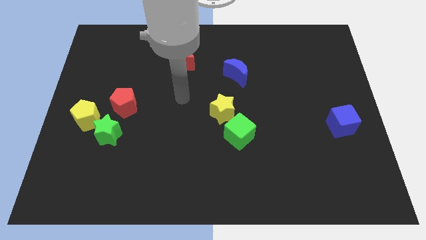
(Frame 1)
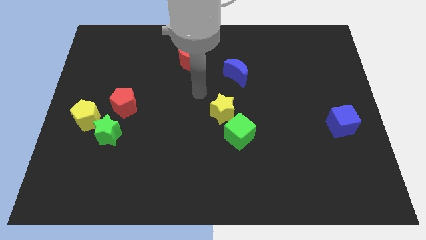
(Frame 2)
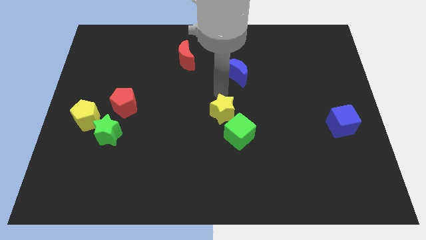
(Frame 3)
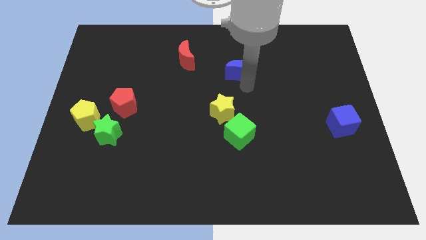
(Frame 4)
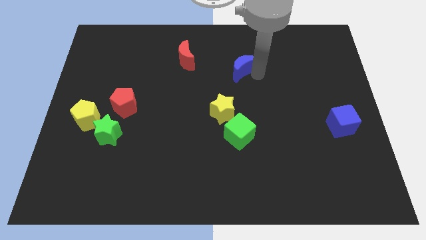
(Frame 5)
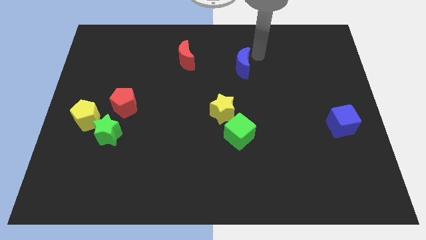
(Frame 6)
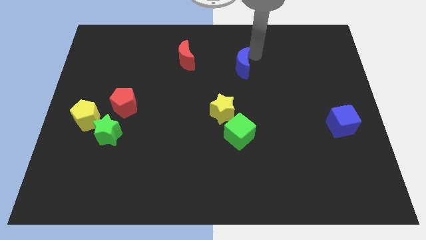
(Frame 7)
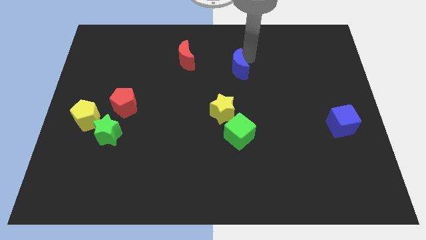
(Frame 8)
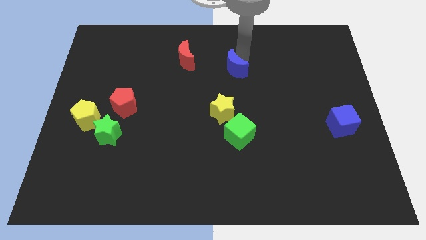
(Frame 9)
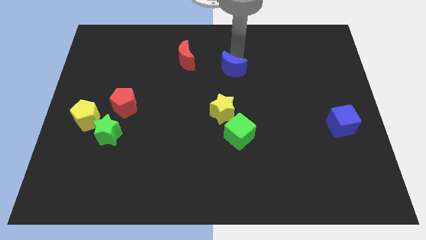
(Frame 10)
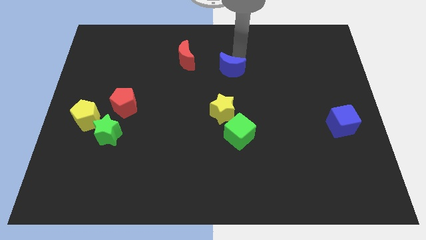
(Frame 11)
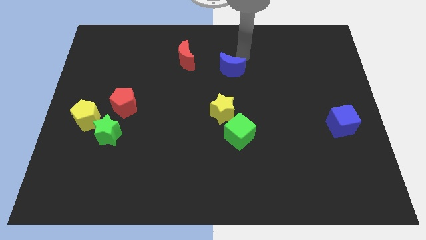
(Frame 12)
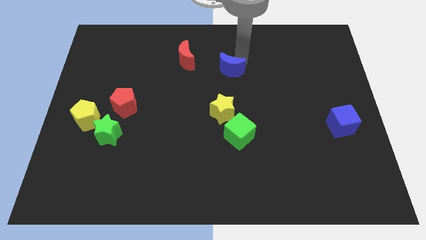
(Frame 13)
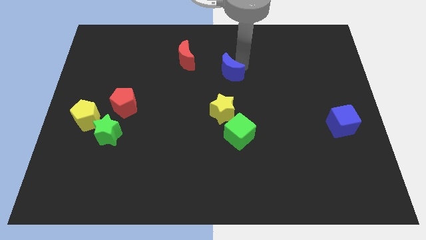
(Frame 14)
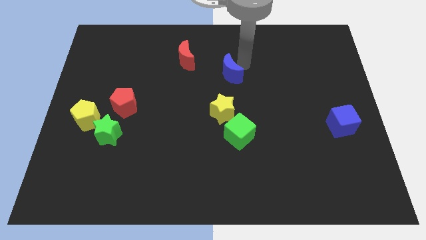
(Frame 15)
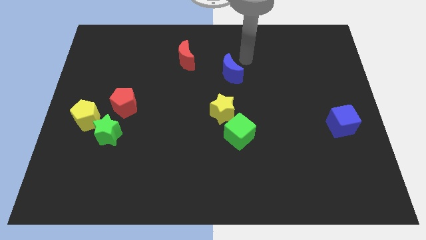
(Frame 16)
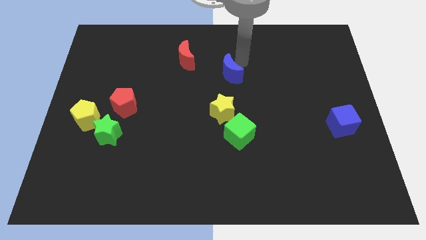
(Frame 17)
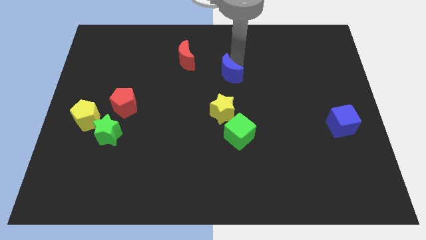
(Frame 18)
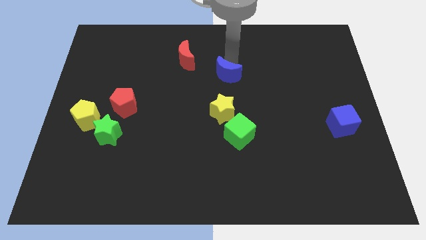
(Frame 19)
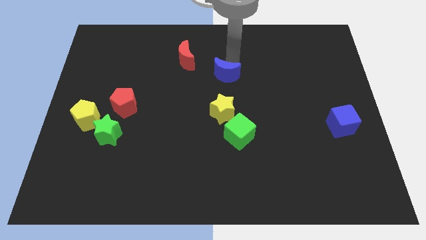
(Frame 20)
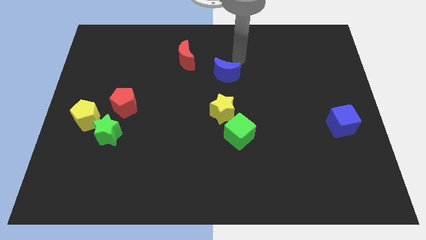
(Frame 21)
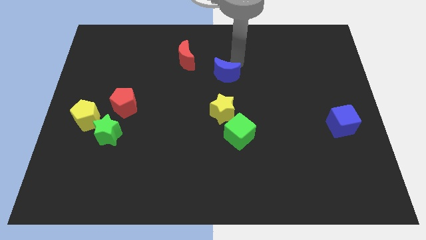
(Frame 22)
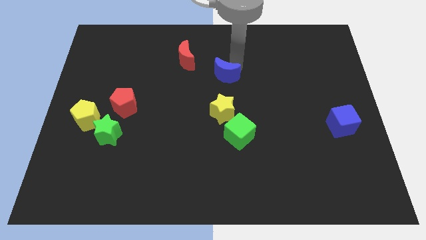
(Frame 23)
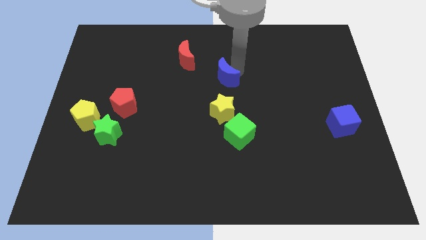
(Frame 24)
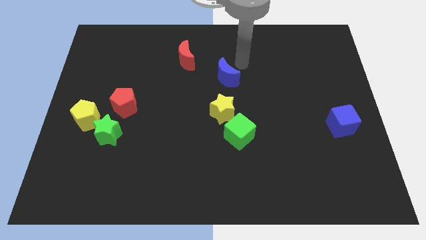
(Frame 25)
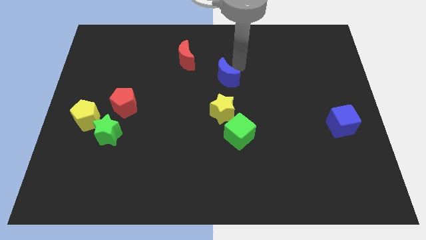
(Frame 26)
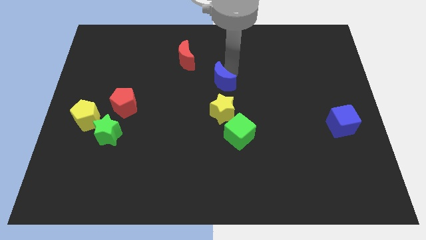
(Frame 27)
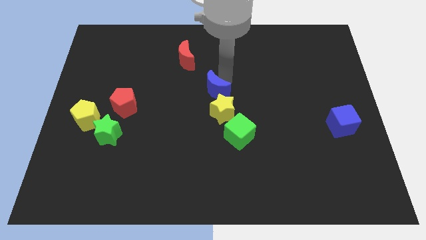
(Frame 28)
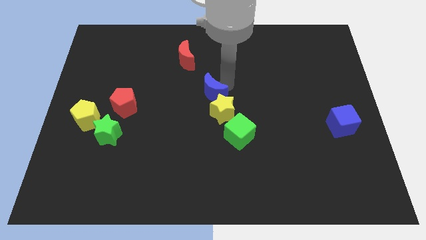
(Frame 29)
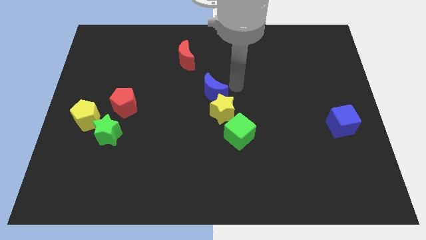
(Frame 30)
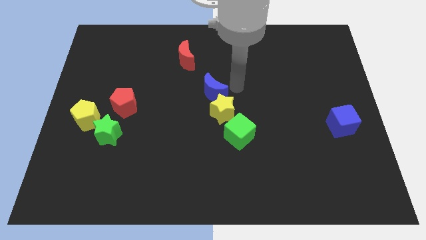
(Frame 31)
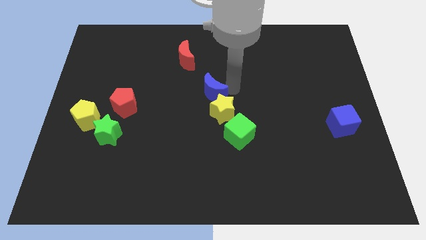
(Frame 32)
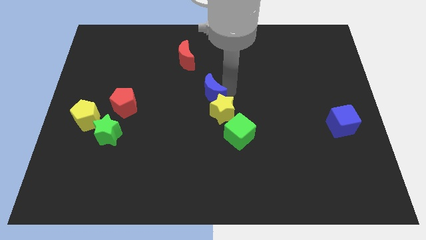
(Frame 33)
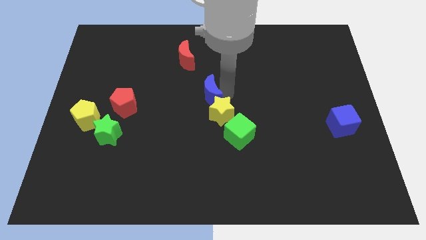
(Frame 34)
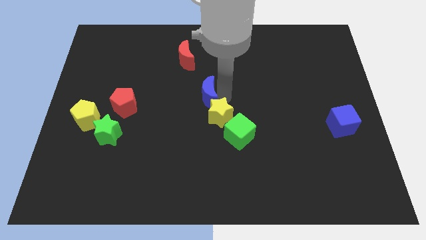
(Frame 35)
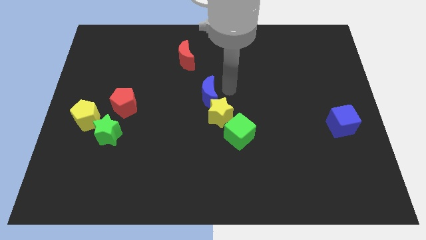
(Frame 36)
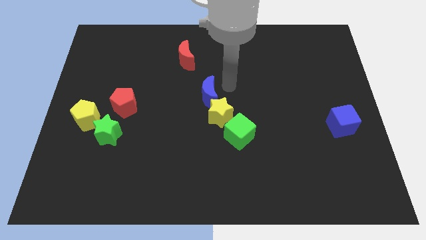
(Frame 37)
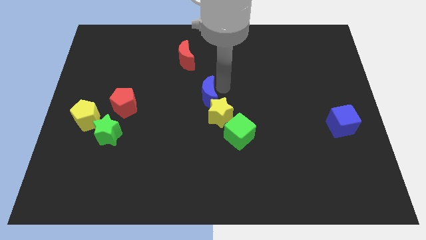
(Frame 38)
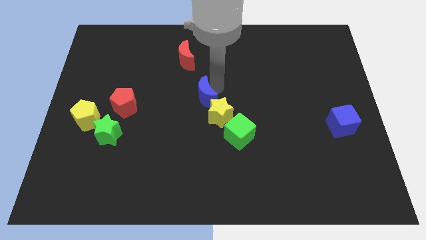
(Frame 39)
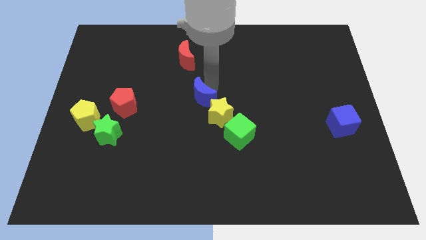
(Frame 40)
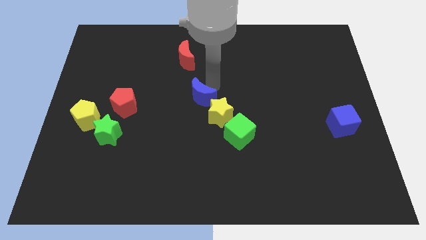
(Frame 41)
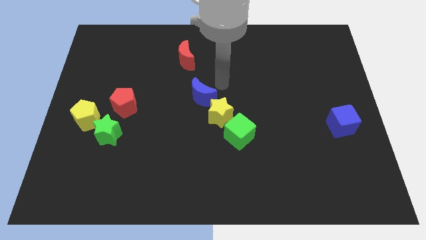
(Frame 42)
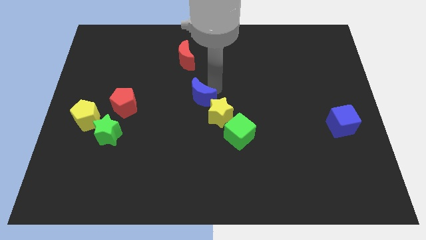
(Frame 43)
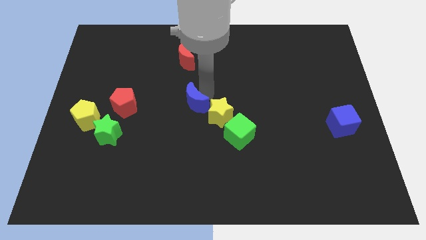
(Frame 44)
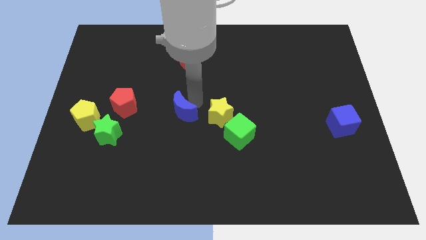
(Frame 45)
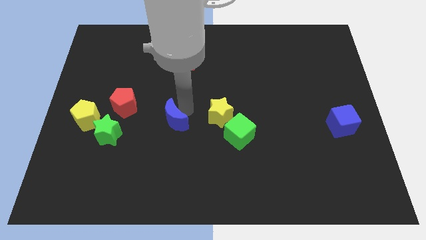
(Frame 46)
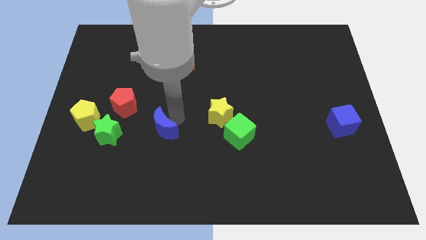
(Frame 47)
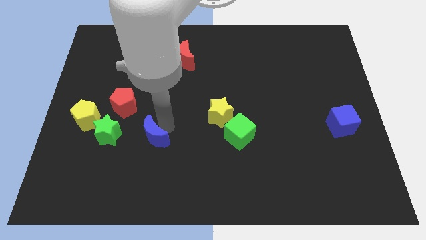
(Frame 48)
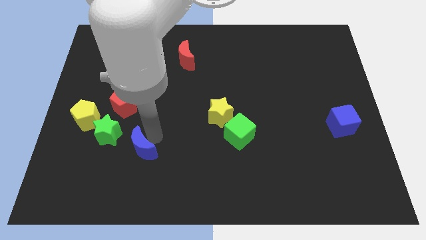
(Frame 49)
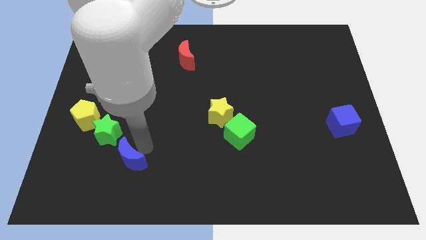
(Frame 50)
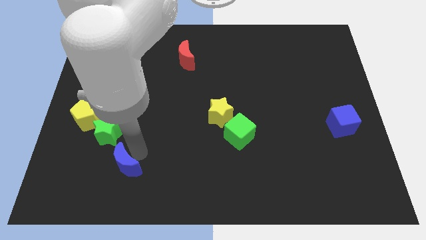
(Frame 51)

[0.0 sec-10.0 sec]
put the blue moon to the bottom of the green star

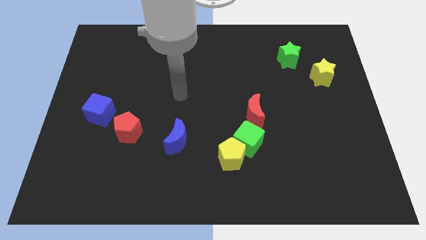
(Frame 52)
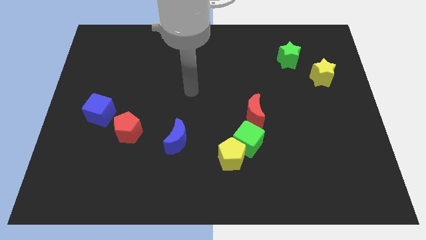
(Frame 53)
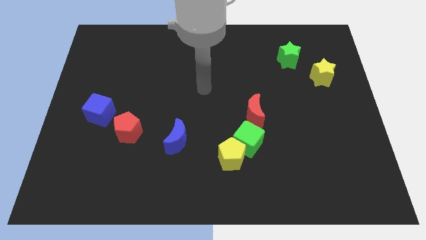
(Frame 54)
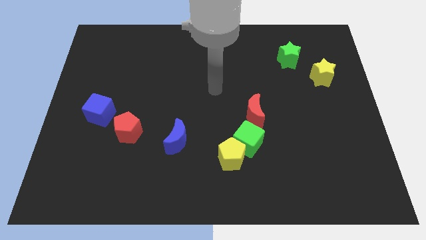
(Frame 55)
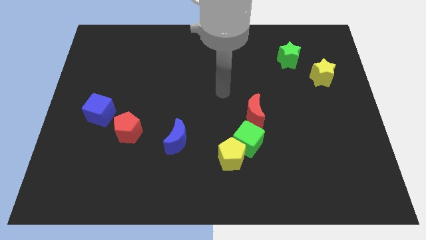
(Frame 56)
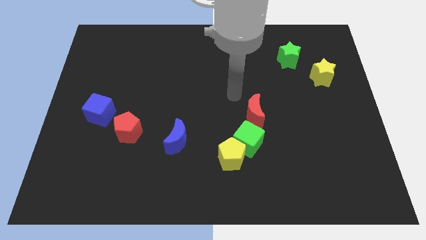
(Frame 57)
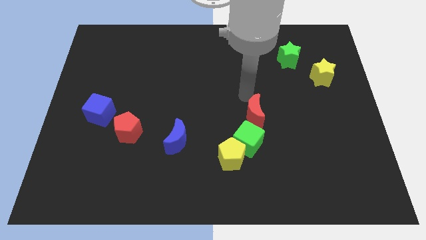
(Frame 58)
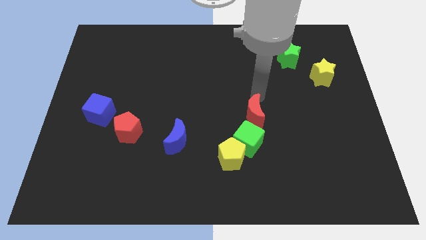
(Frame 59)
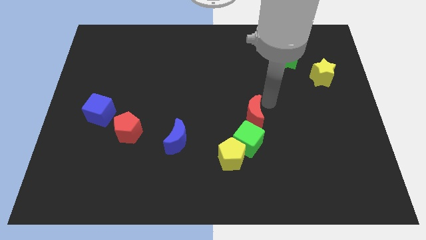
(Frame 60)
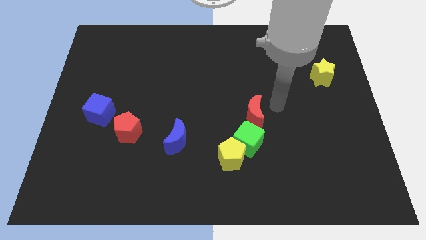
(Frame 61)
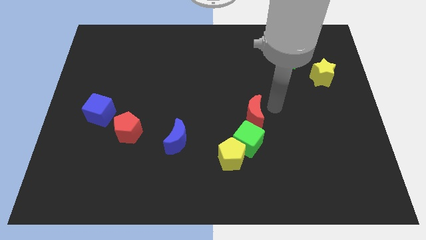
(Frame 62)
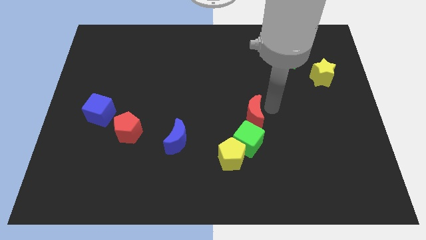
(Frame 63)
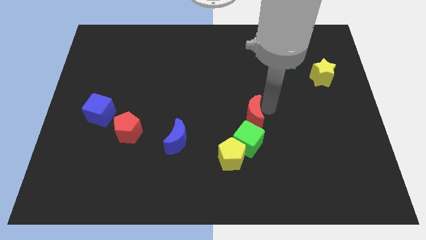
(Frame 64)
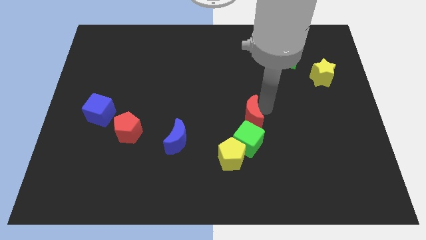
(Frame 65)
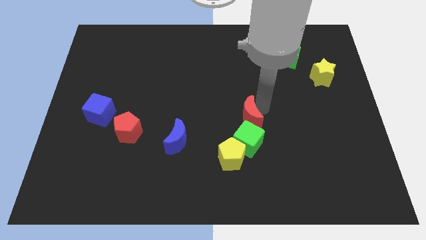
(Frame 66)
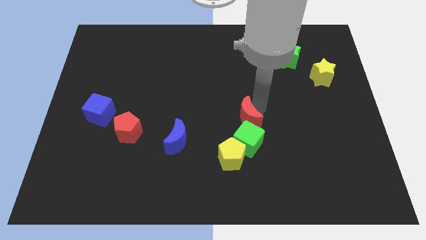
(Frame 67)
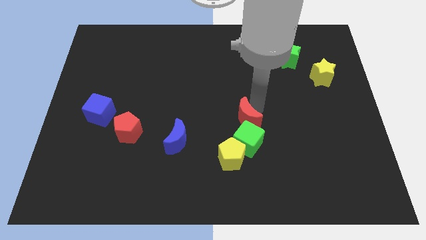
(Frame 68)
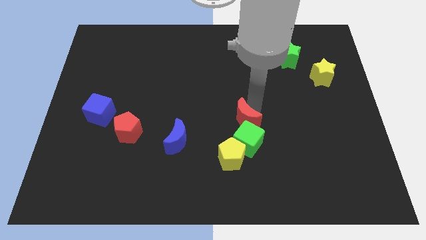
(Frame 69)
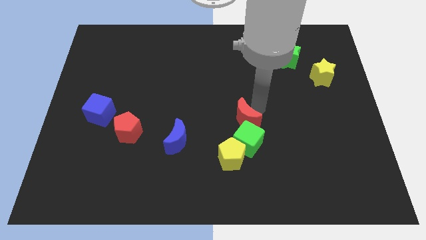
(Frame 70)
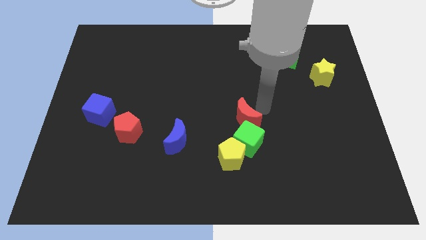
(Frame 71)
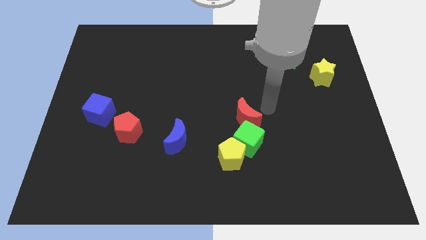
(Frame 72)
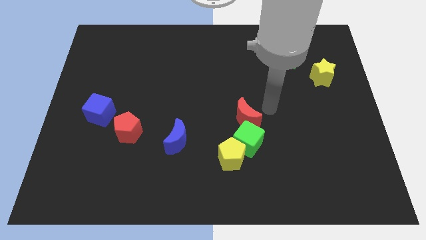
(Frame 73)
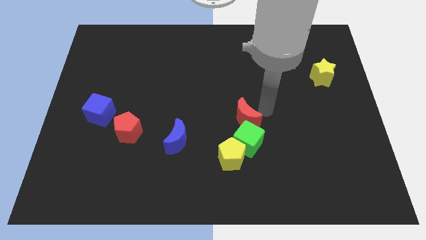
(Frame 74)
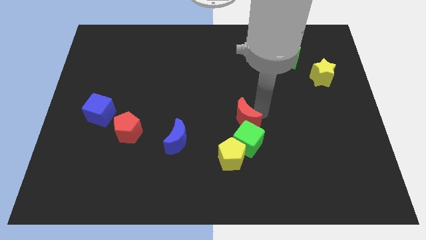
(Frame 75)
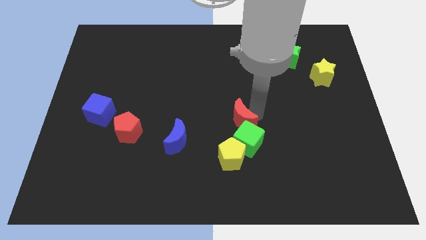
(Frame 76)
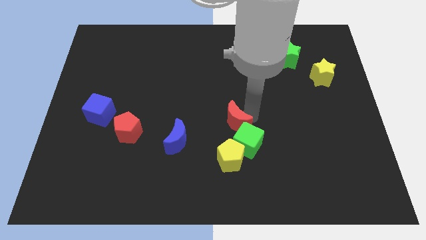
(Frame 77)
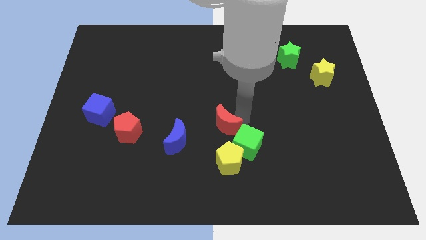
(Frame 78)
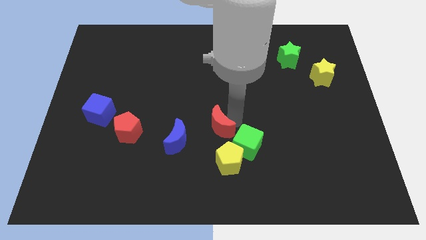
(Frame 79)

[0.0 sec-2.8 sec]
put the red moon to the top left side of the yellow pentagon

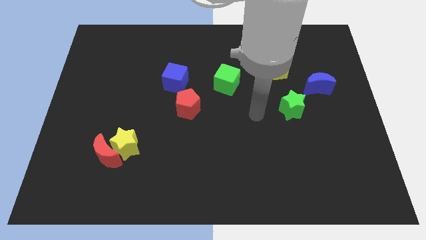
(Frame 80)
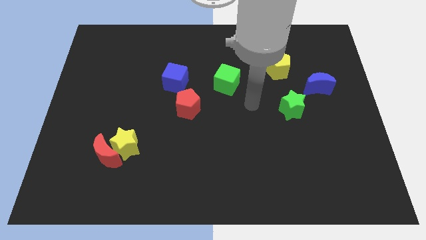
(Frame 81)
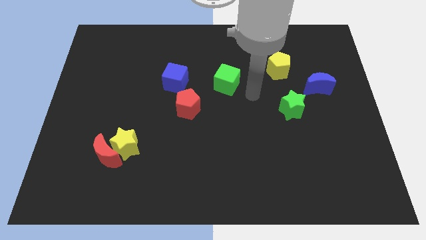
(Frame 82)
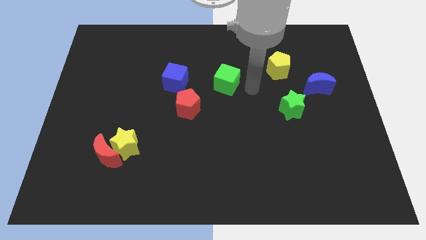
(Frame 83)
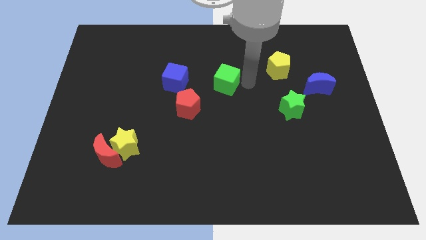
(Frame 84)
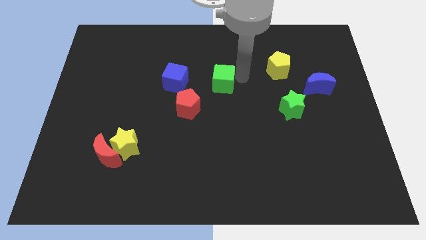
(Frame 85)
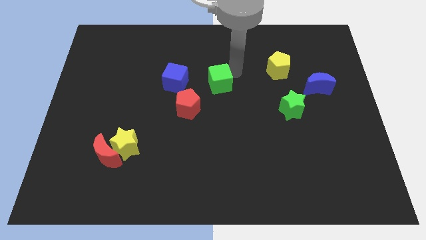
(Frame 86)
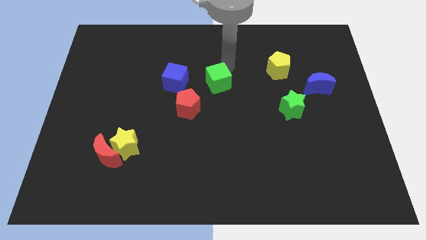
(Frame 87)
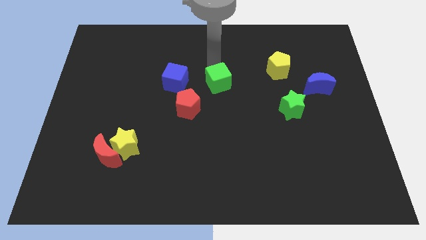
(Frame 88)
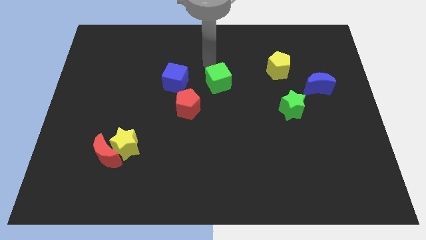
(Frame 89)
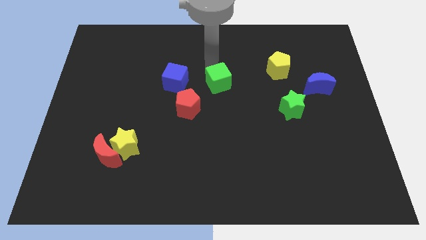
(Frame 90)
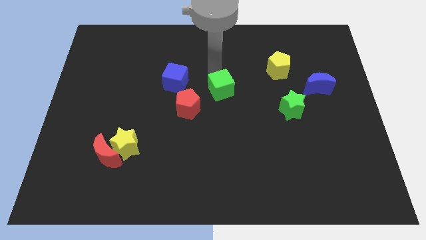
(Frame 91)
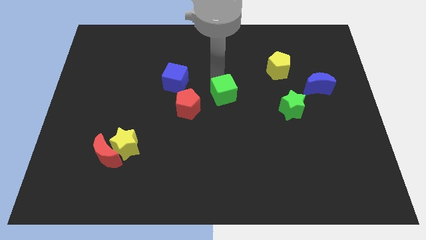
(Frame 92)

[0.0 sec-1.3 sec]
push the green cube to the right of the red pentagon
